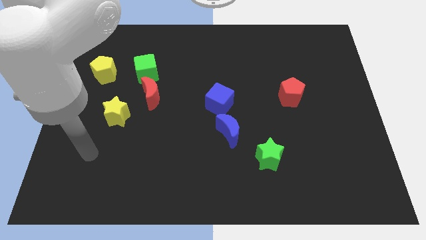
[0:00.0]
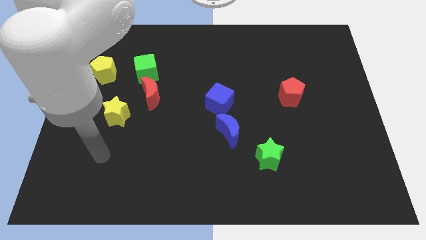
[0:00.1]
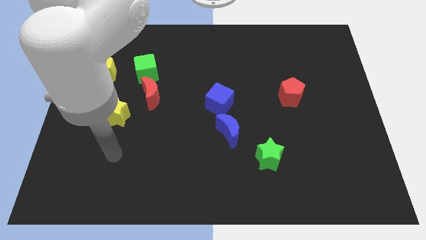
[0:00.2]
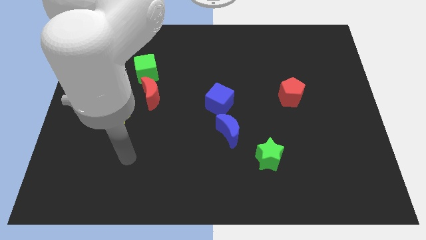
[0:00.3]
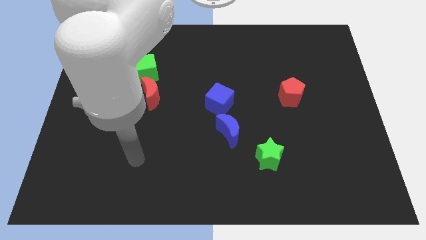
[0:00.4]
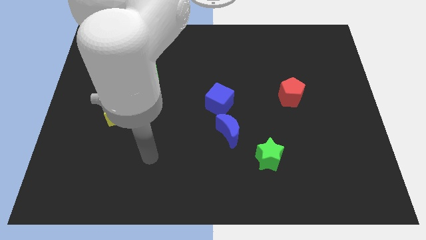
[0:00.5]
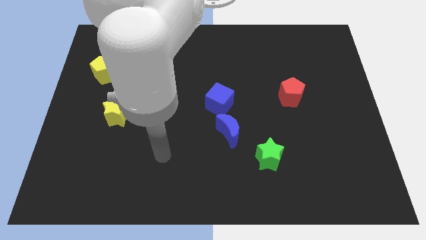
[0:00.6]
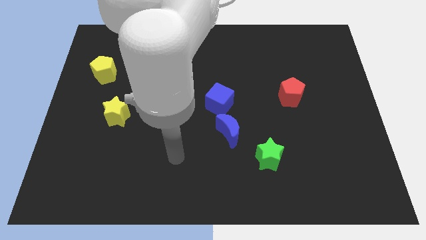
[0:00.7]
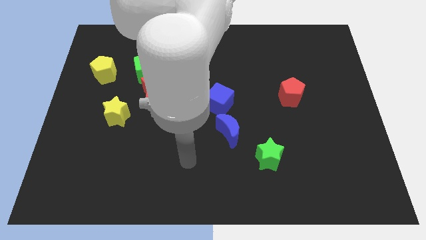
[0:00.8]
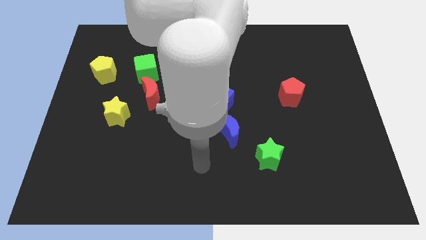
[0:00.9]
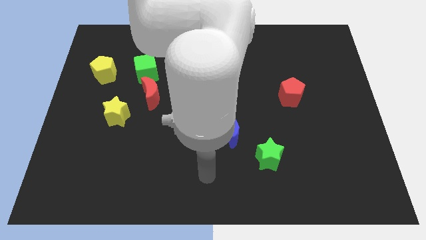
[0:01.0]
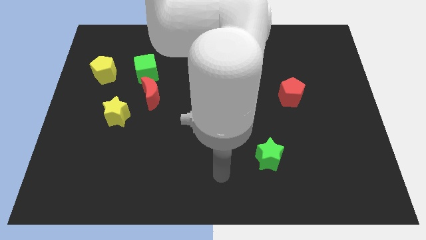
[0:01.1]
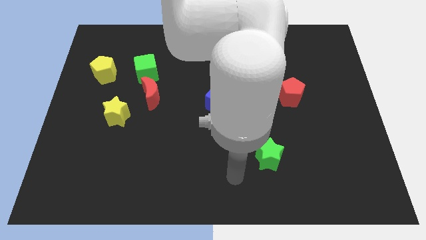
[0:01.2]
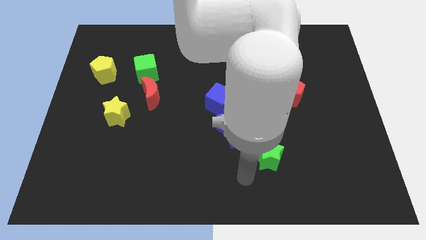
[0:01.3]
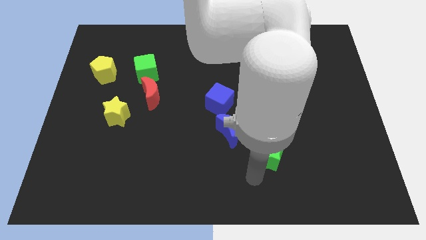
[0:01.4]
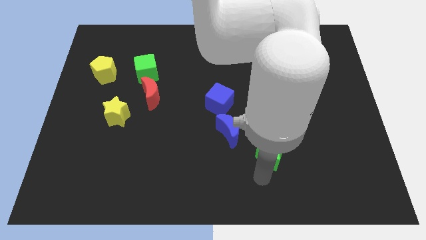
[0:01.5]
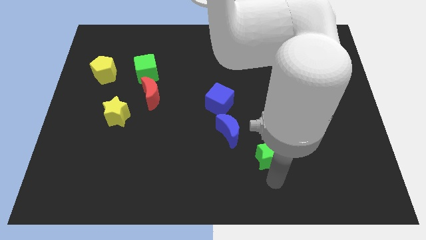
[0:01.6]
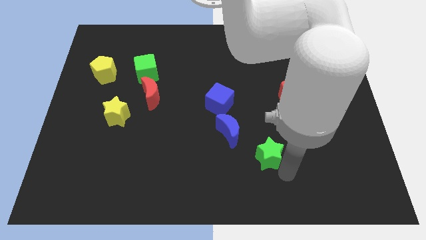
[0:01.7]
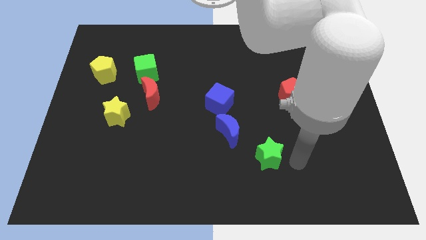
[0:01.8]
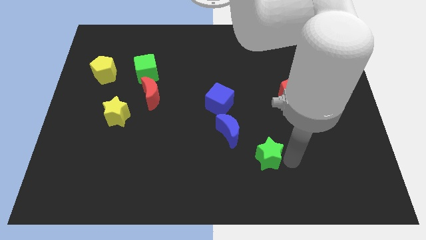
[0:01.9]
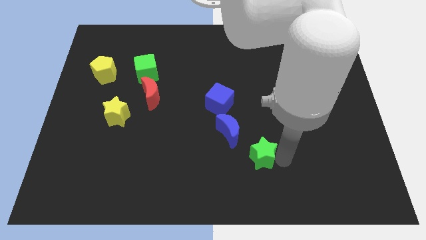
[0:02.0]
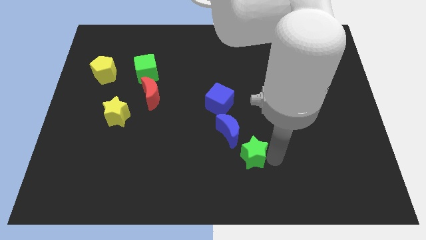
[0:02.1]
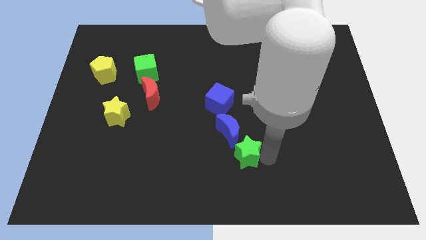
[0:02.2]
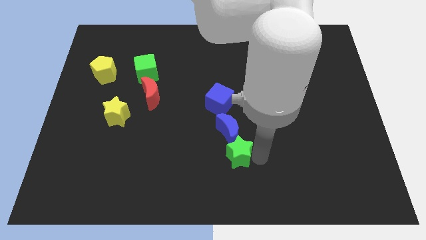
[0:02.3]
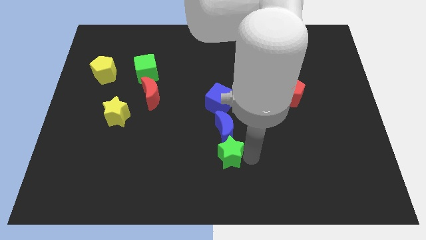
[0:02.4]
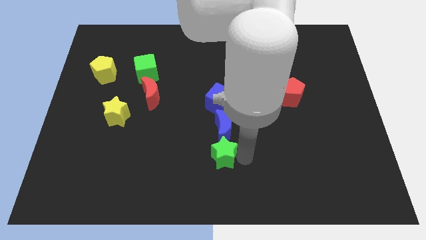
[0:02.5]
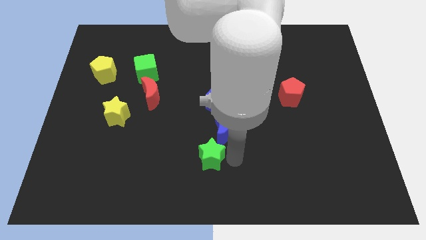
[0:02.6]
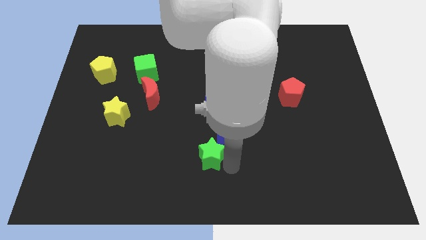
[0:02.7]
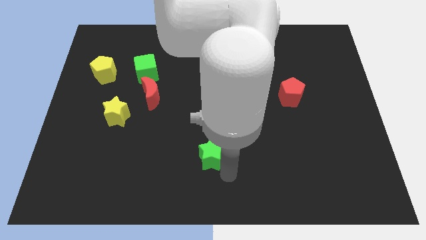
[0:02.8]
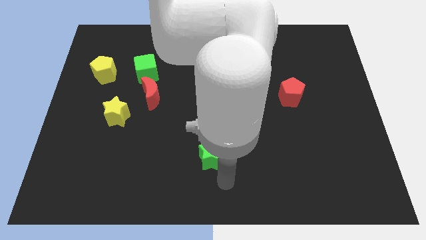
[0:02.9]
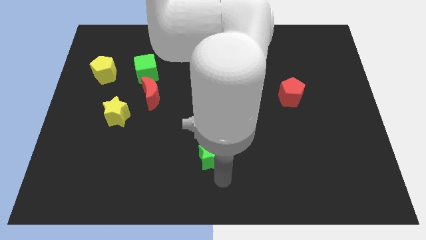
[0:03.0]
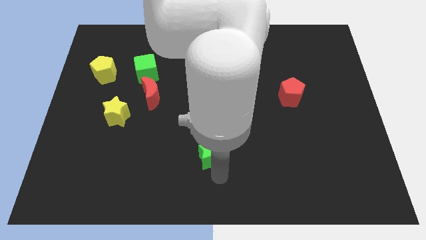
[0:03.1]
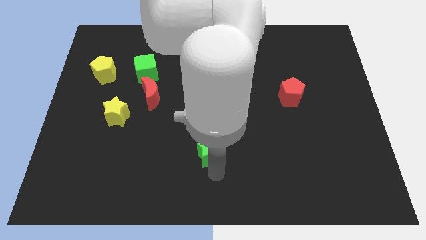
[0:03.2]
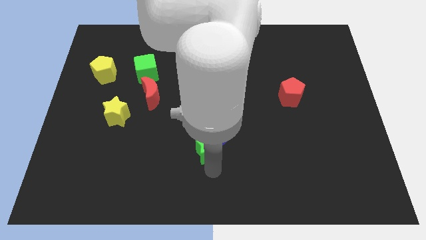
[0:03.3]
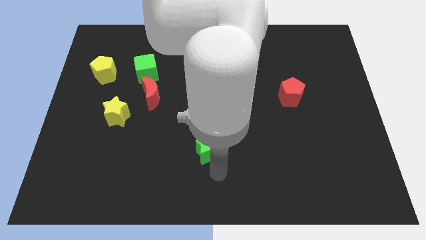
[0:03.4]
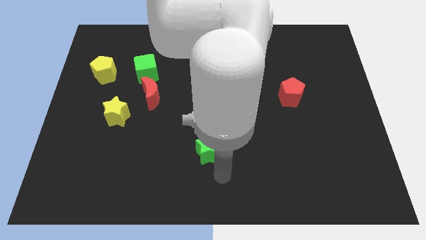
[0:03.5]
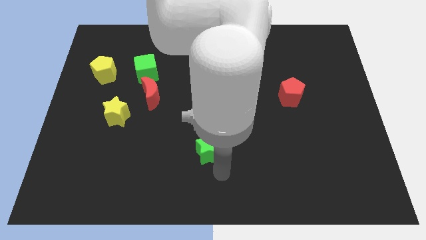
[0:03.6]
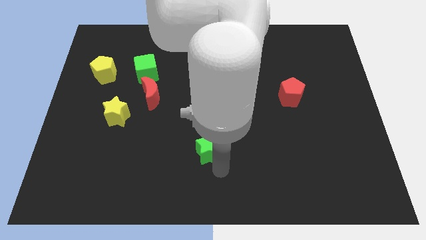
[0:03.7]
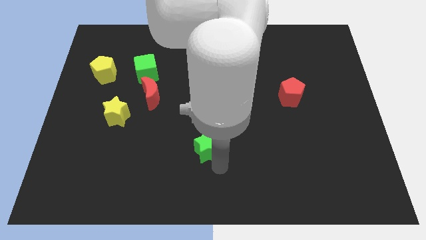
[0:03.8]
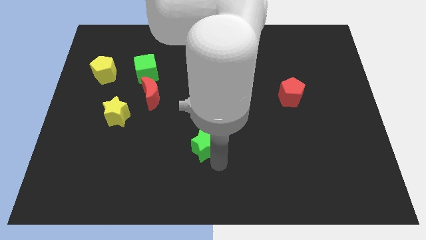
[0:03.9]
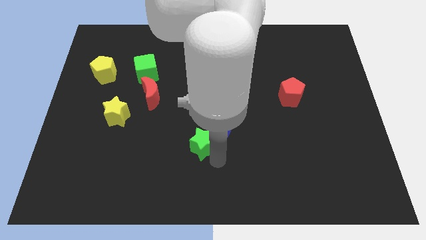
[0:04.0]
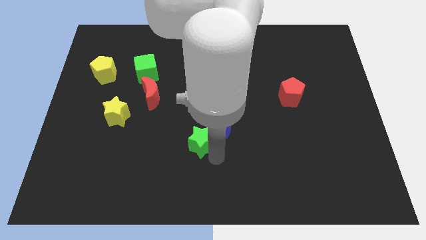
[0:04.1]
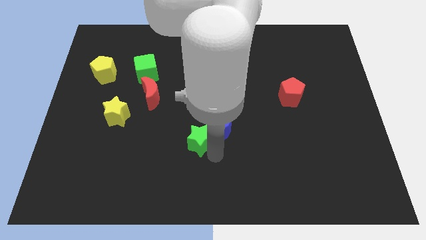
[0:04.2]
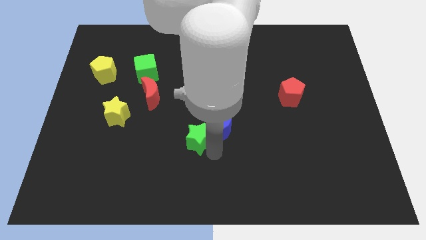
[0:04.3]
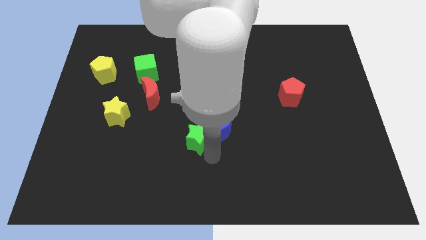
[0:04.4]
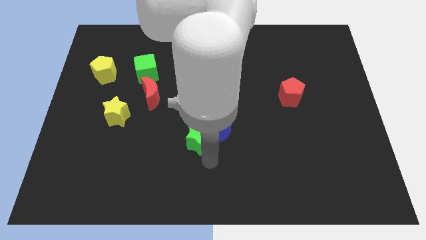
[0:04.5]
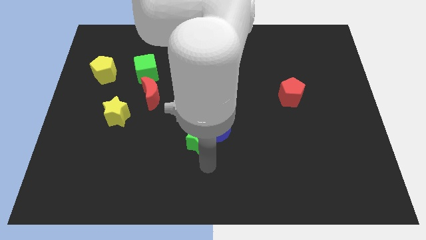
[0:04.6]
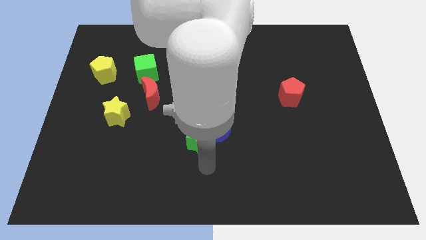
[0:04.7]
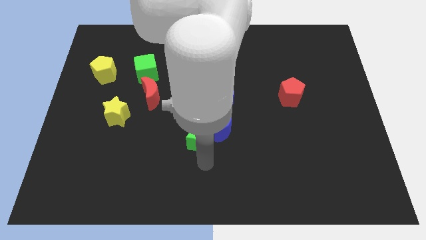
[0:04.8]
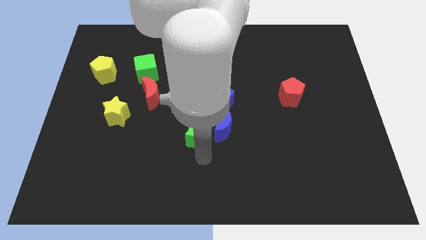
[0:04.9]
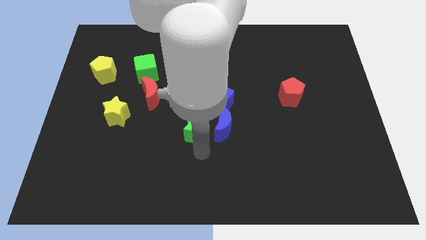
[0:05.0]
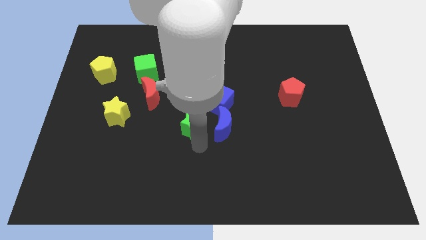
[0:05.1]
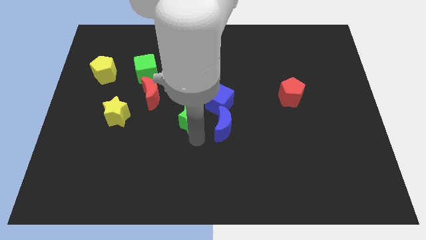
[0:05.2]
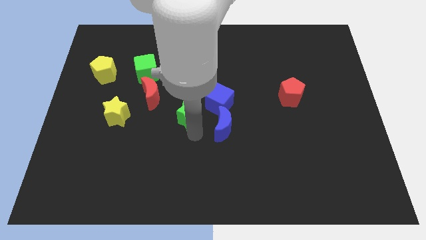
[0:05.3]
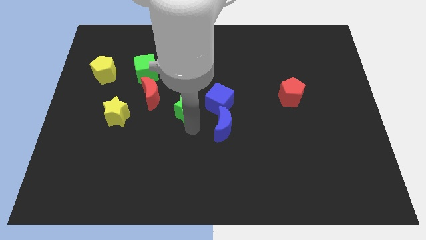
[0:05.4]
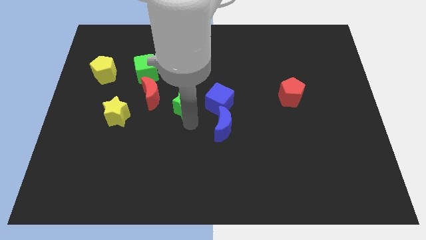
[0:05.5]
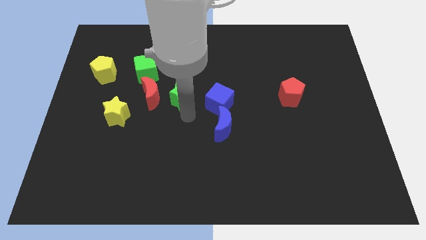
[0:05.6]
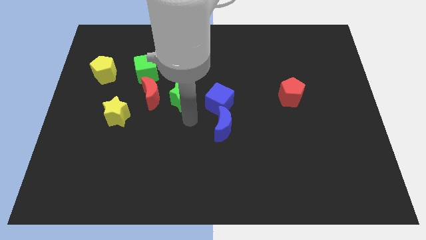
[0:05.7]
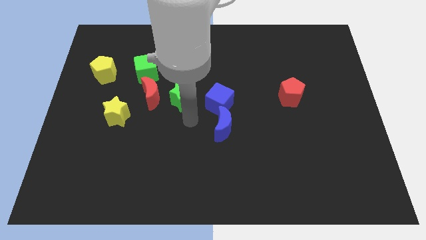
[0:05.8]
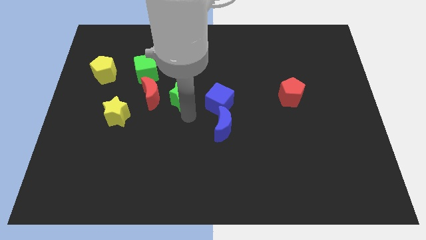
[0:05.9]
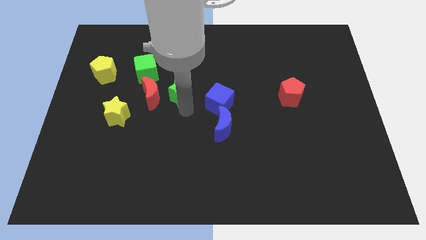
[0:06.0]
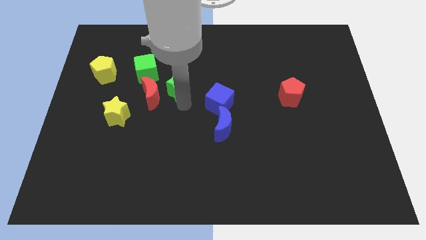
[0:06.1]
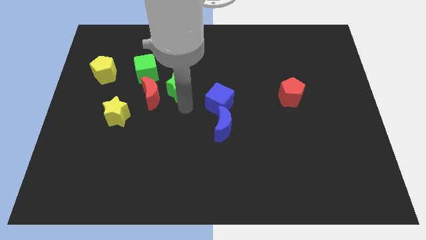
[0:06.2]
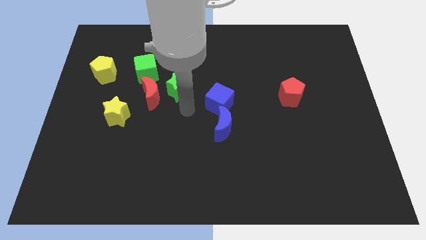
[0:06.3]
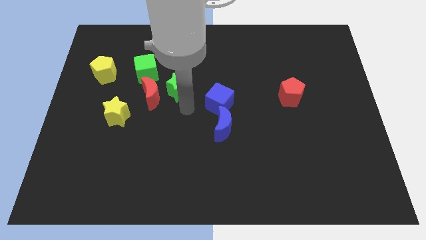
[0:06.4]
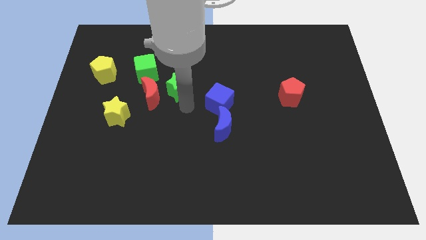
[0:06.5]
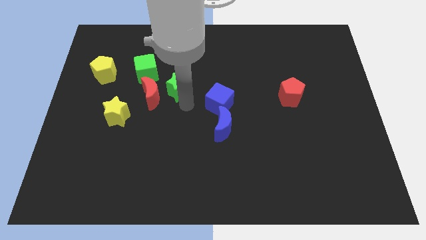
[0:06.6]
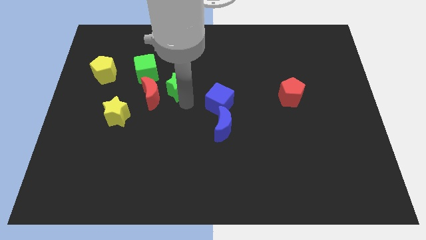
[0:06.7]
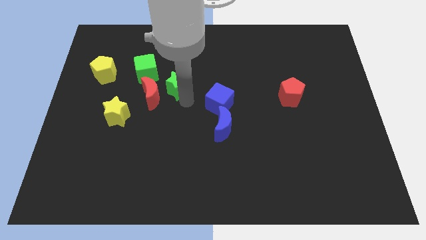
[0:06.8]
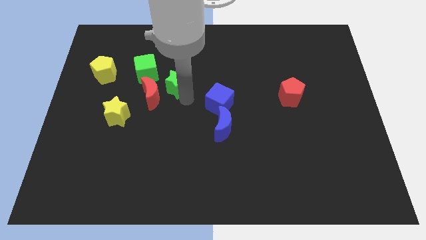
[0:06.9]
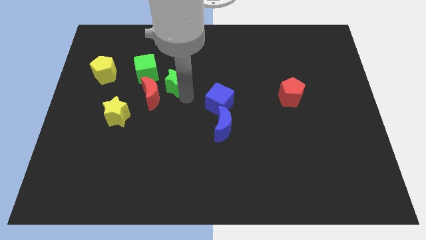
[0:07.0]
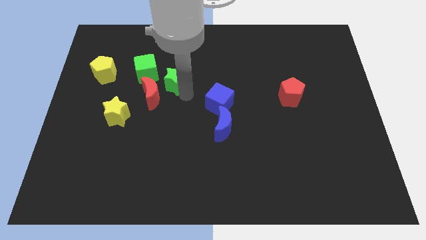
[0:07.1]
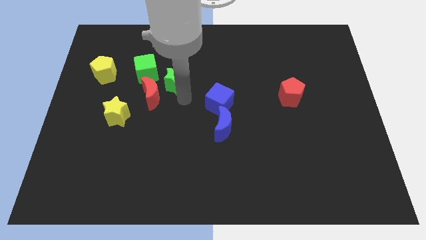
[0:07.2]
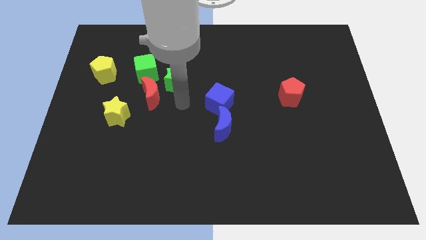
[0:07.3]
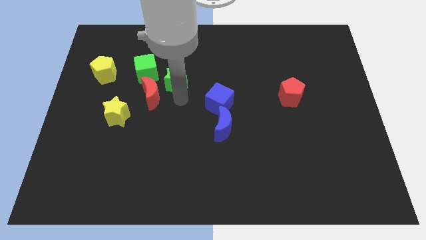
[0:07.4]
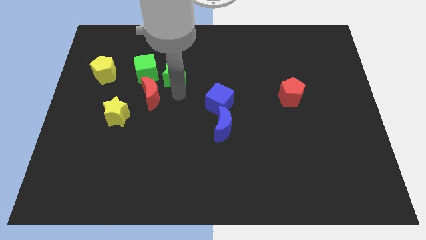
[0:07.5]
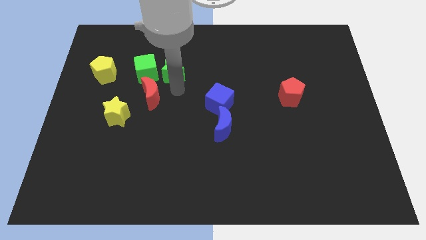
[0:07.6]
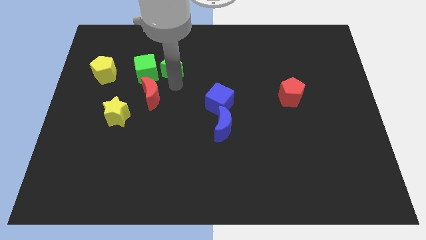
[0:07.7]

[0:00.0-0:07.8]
move the green star diagonally up and to the right of the green cube
